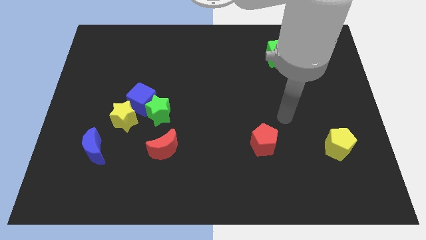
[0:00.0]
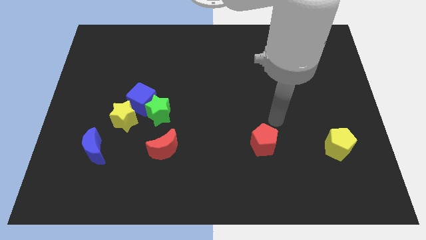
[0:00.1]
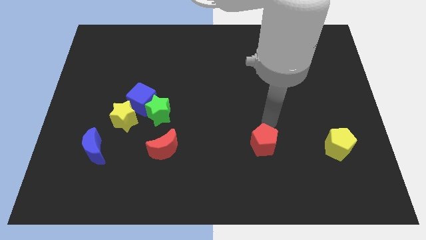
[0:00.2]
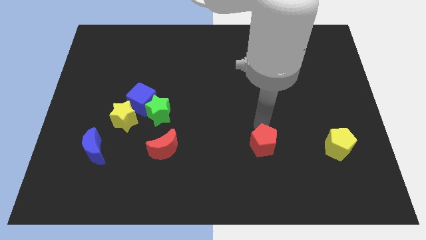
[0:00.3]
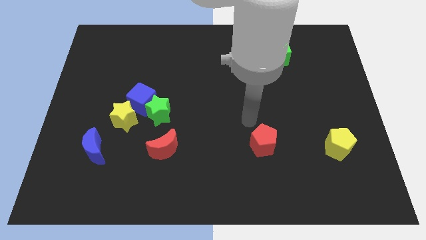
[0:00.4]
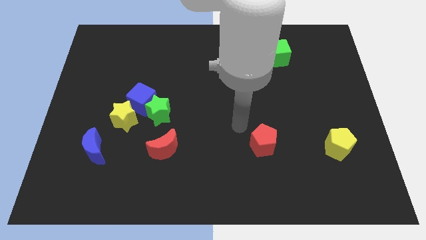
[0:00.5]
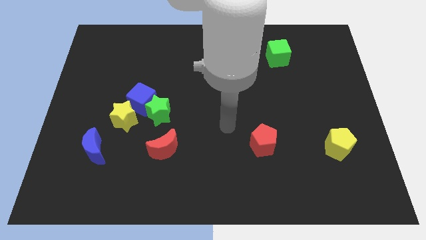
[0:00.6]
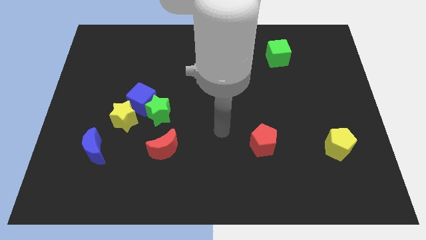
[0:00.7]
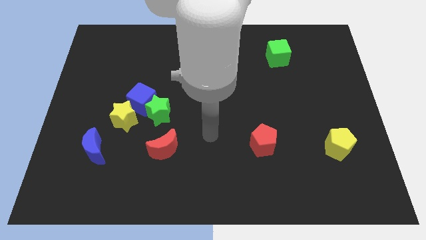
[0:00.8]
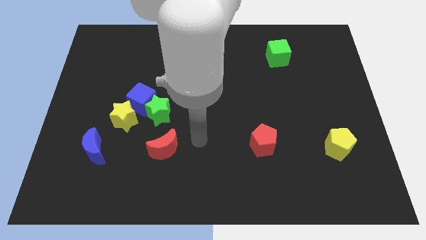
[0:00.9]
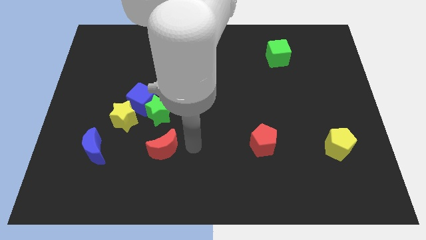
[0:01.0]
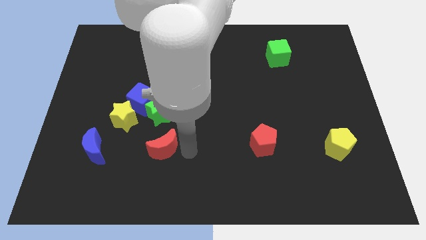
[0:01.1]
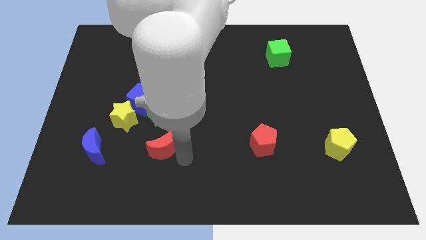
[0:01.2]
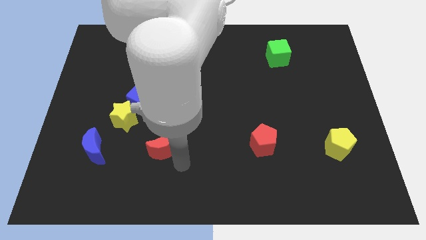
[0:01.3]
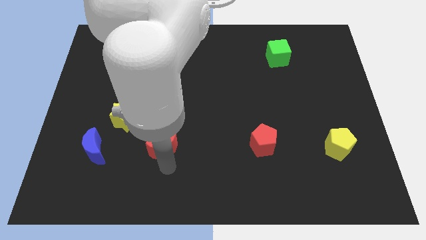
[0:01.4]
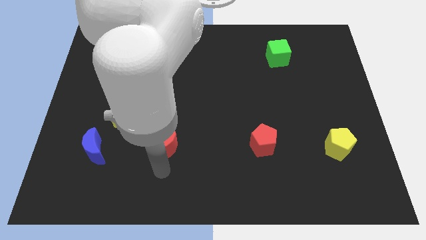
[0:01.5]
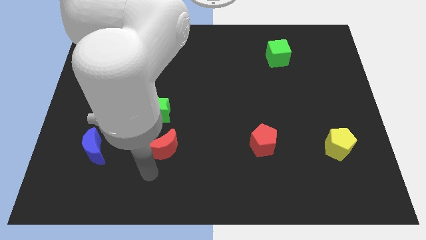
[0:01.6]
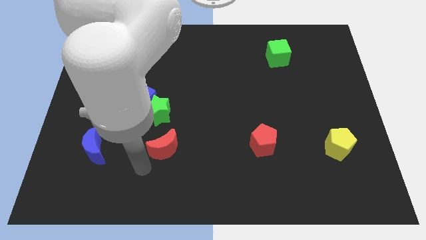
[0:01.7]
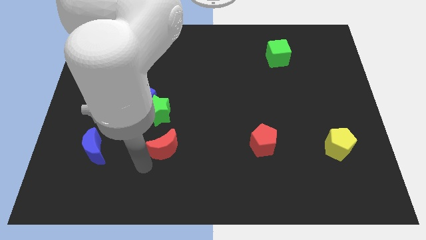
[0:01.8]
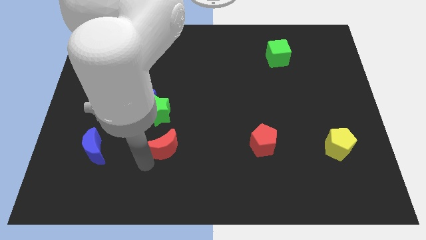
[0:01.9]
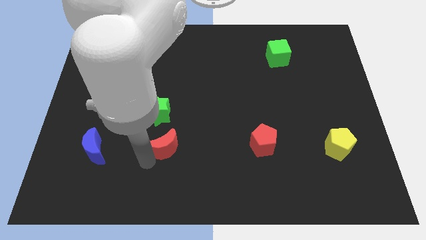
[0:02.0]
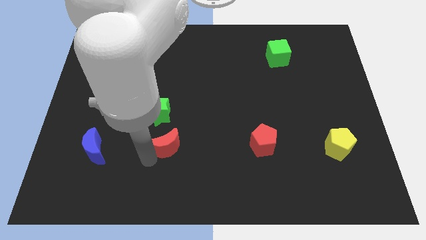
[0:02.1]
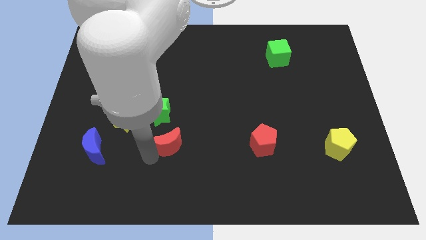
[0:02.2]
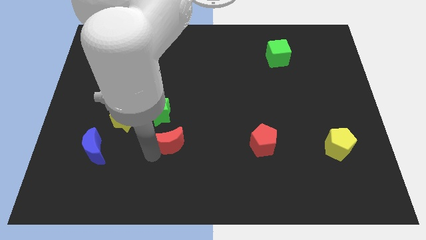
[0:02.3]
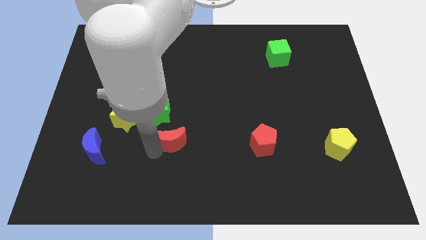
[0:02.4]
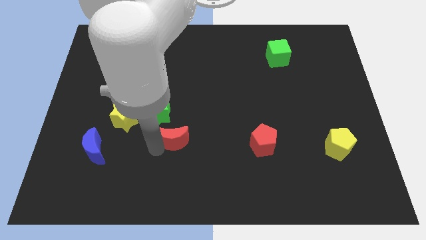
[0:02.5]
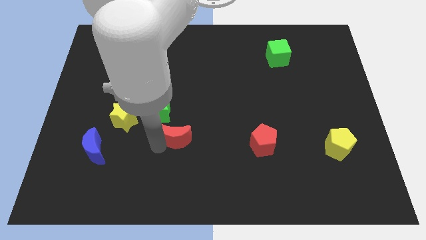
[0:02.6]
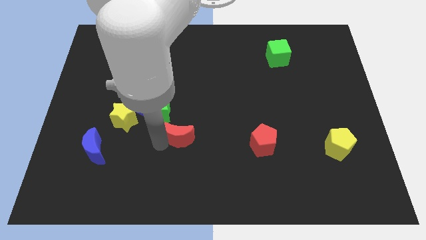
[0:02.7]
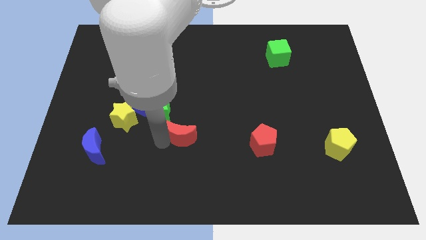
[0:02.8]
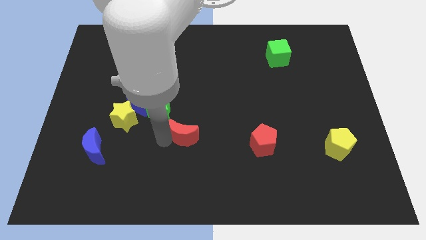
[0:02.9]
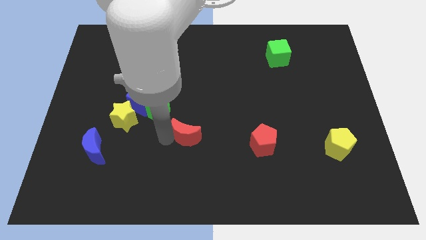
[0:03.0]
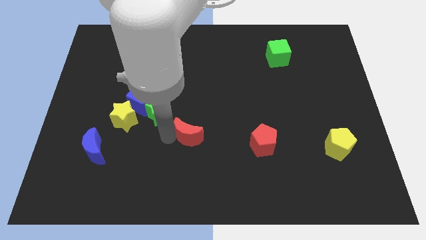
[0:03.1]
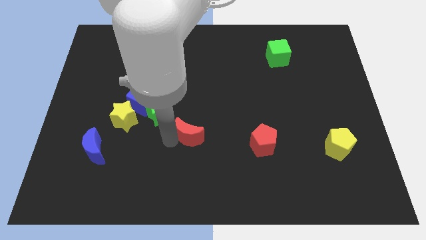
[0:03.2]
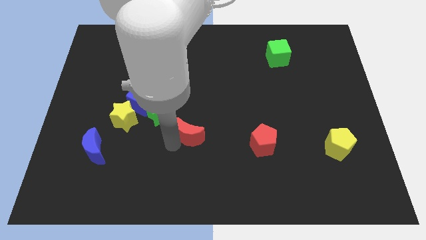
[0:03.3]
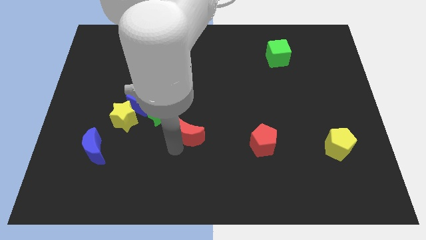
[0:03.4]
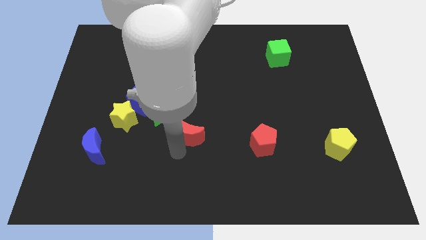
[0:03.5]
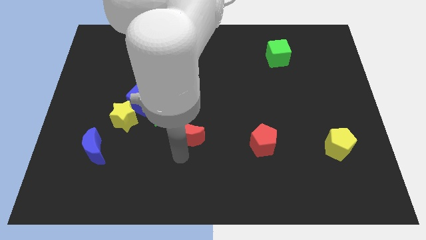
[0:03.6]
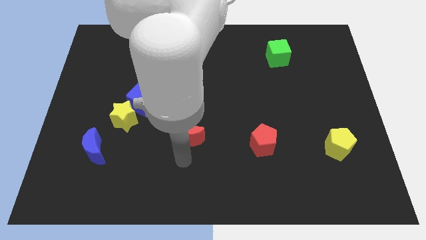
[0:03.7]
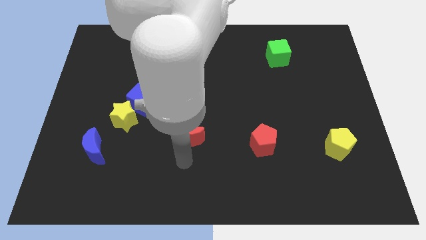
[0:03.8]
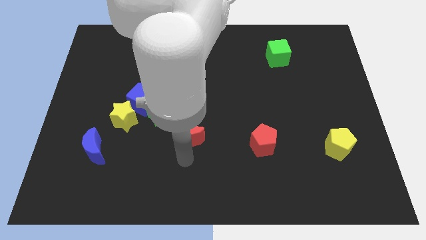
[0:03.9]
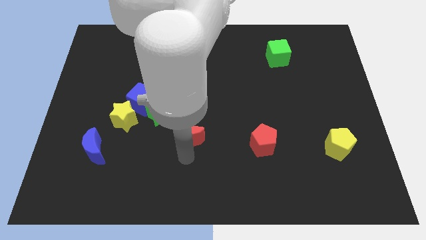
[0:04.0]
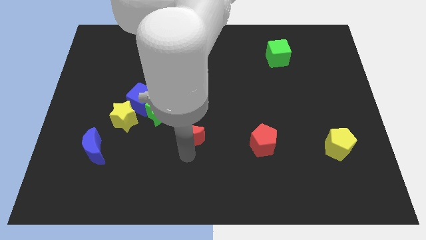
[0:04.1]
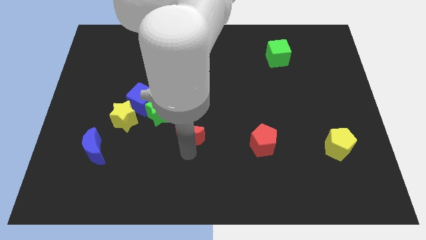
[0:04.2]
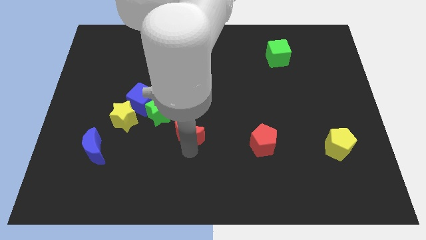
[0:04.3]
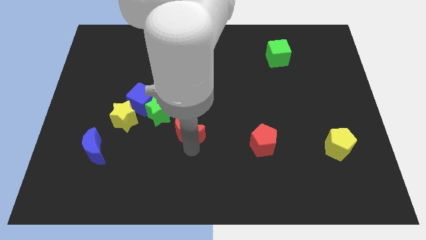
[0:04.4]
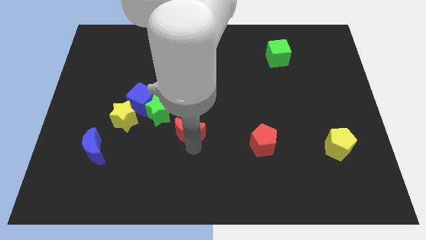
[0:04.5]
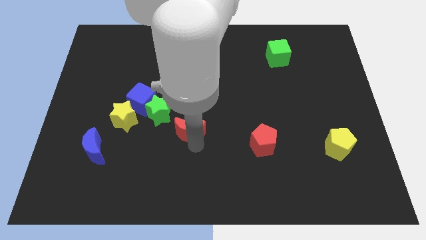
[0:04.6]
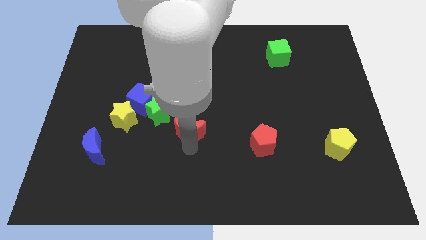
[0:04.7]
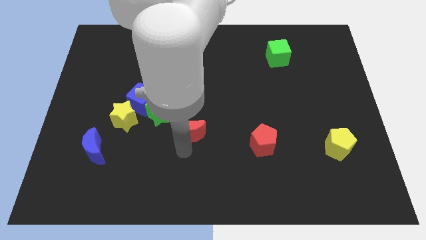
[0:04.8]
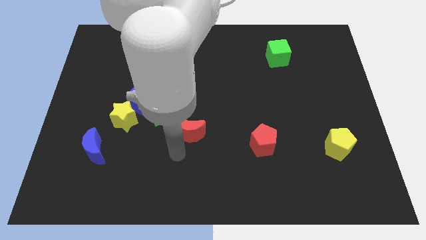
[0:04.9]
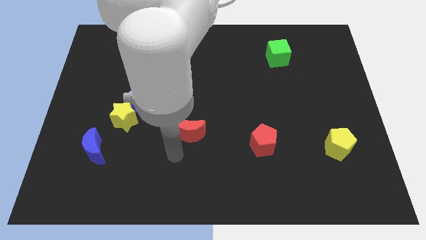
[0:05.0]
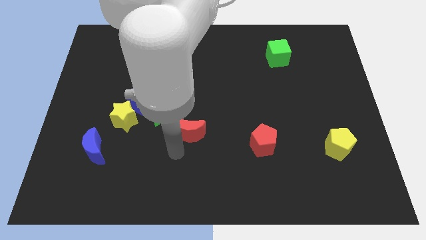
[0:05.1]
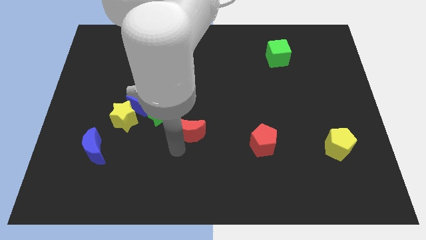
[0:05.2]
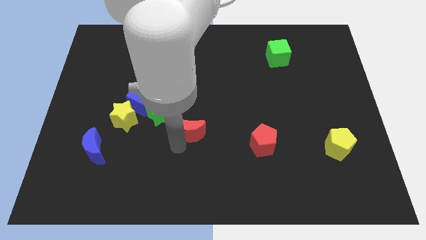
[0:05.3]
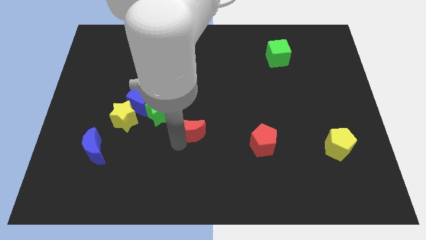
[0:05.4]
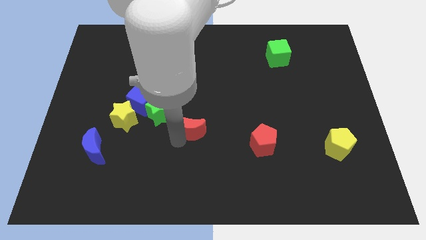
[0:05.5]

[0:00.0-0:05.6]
push the red moon to the right of the green star

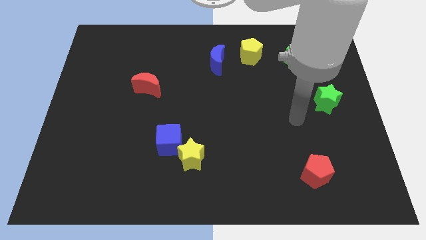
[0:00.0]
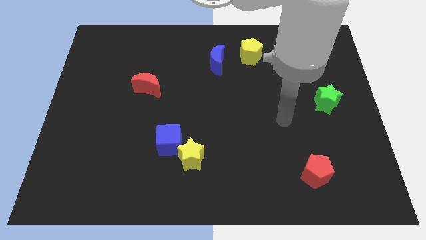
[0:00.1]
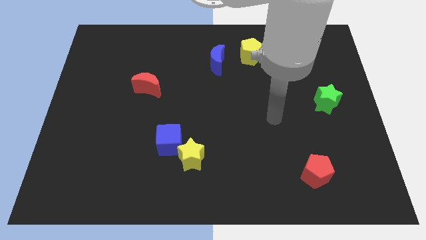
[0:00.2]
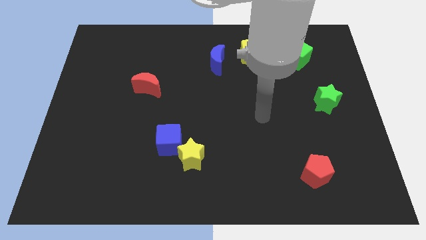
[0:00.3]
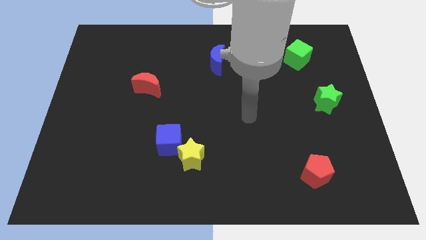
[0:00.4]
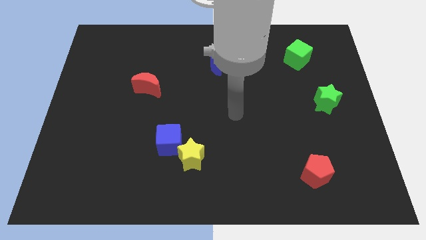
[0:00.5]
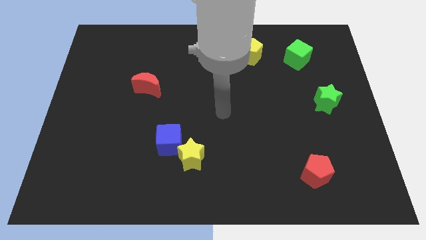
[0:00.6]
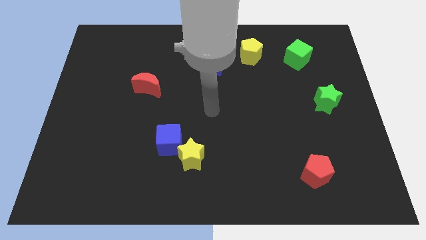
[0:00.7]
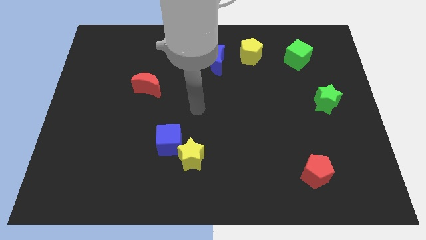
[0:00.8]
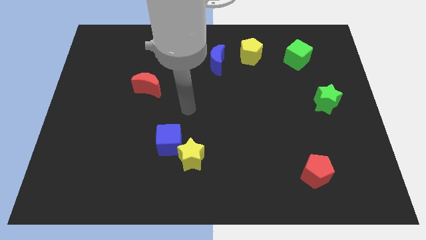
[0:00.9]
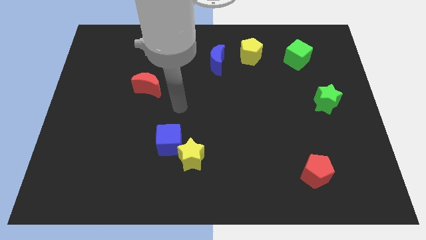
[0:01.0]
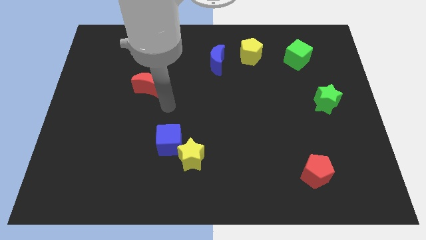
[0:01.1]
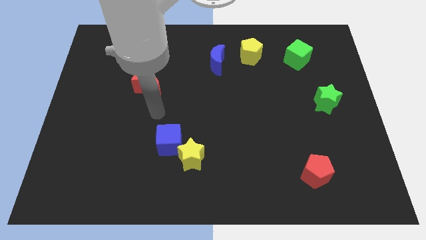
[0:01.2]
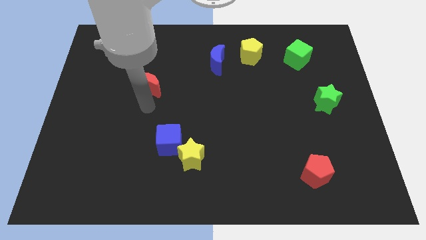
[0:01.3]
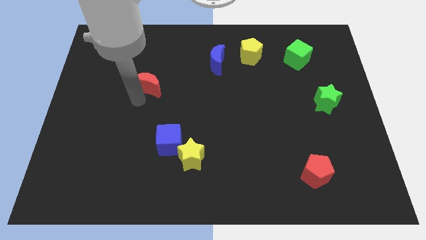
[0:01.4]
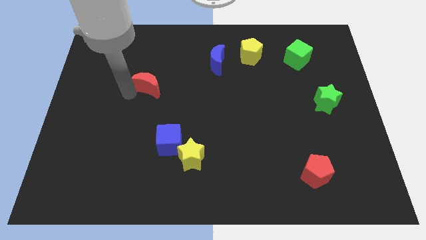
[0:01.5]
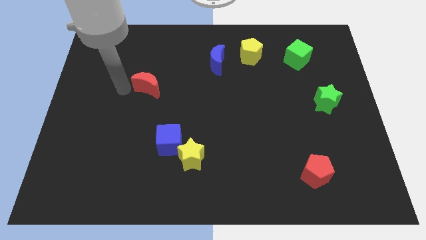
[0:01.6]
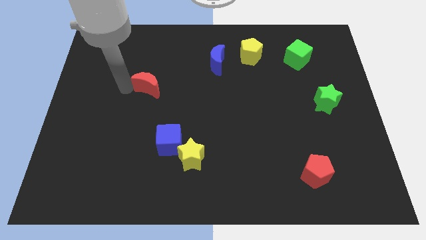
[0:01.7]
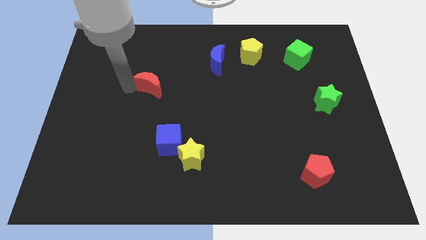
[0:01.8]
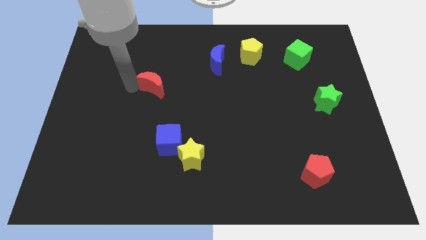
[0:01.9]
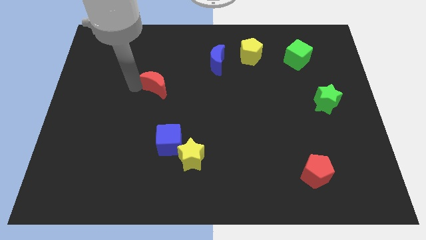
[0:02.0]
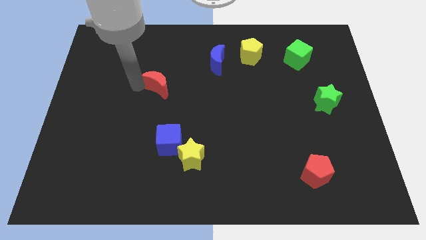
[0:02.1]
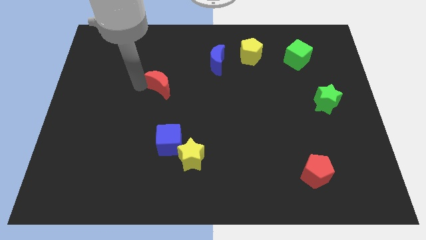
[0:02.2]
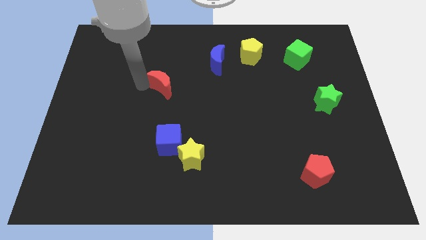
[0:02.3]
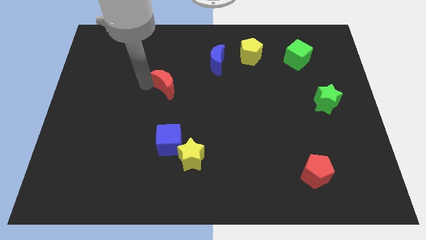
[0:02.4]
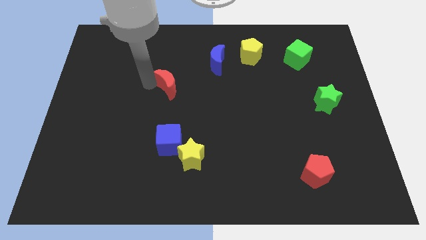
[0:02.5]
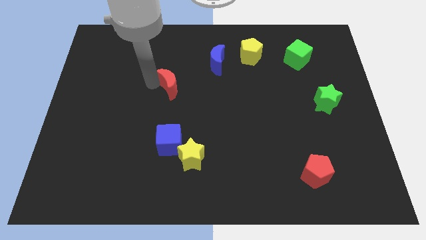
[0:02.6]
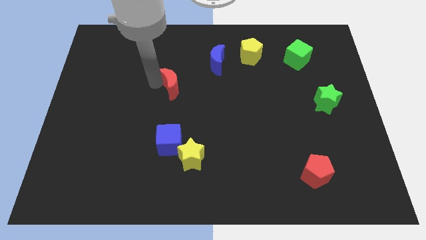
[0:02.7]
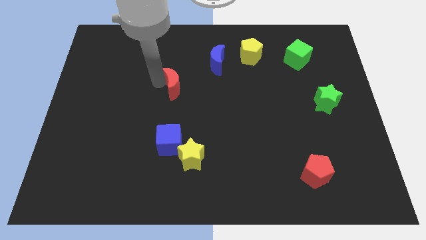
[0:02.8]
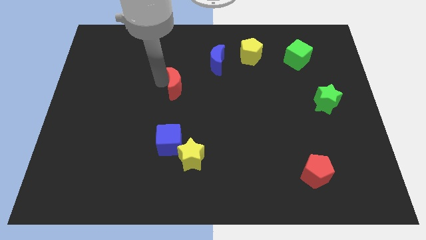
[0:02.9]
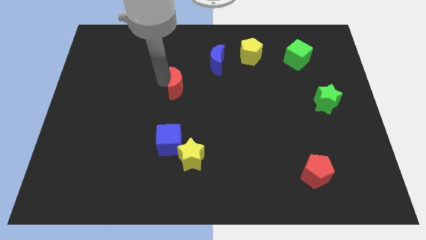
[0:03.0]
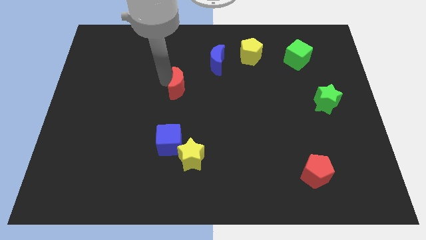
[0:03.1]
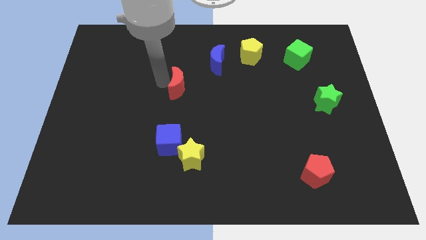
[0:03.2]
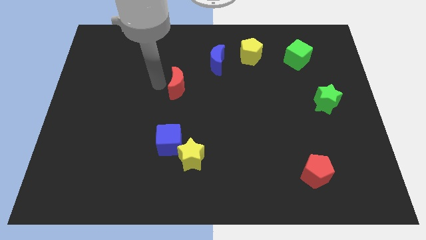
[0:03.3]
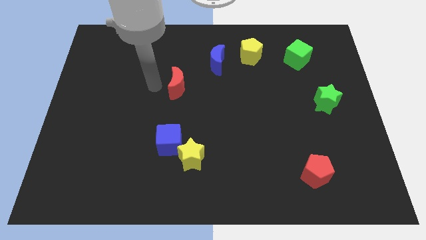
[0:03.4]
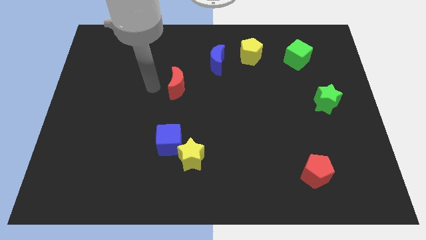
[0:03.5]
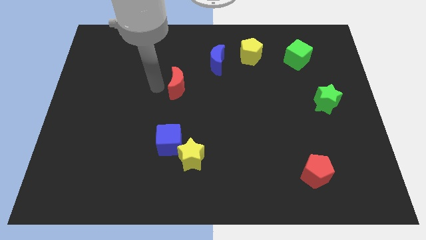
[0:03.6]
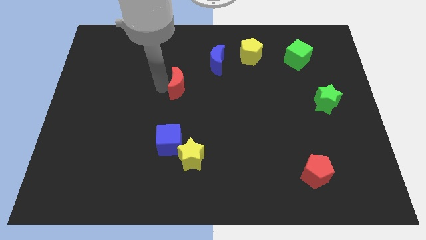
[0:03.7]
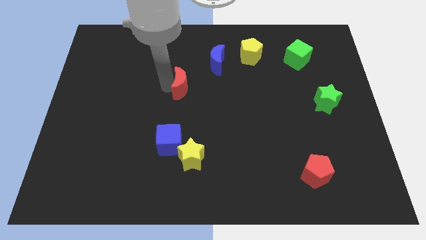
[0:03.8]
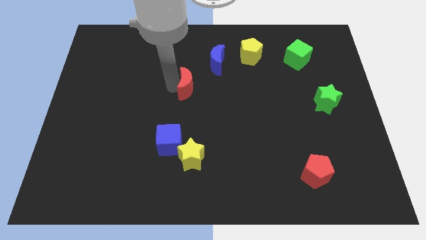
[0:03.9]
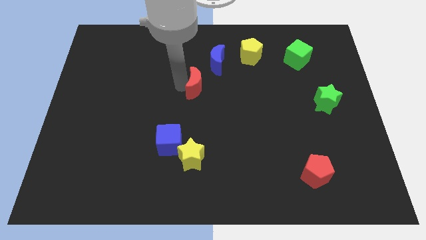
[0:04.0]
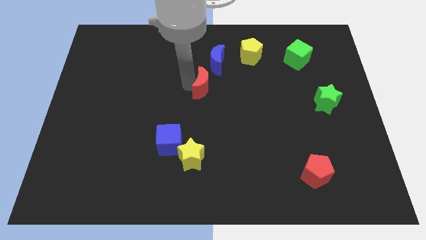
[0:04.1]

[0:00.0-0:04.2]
push the red moon to the bottom side of the blue moon
